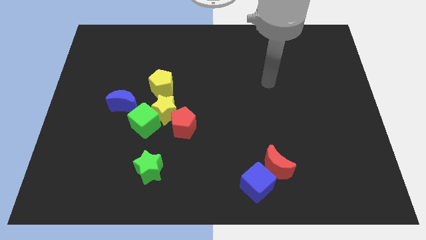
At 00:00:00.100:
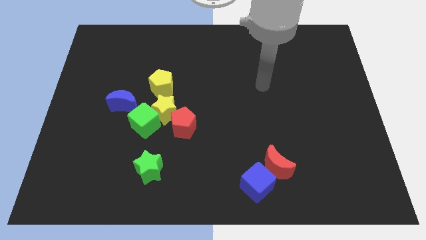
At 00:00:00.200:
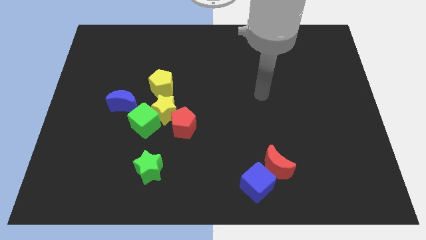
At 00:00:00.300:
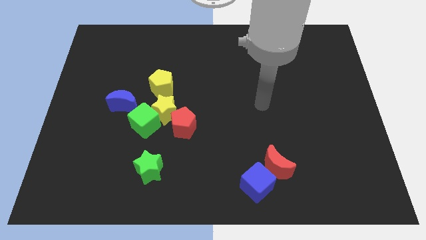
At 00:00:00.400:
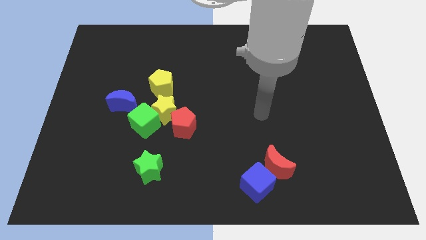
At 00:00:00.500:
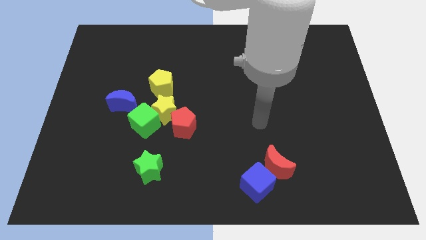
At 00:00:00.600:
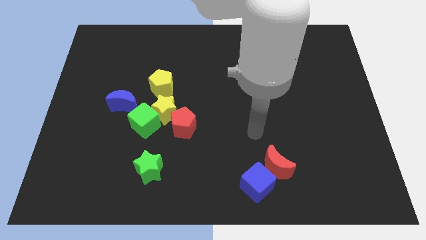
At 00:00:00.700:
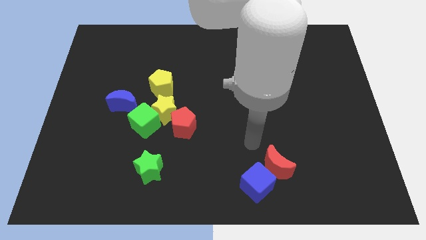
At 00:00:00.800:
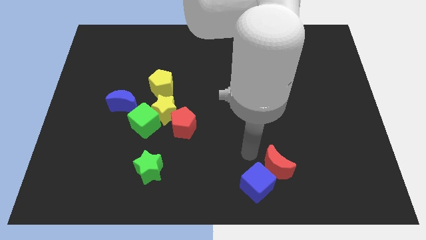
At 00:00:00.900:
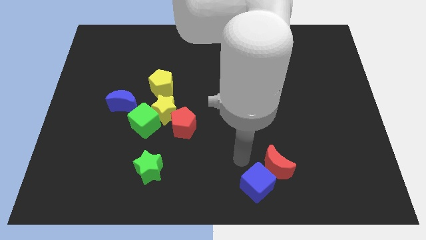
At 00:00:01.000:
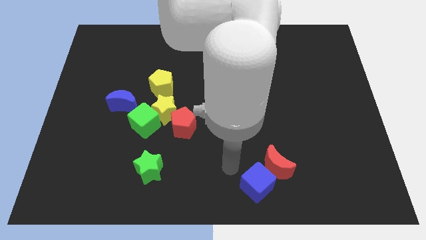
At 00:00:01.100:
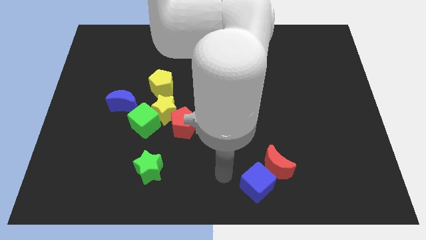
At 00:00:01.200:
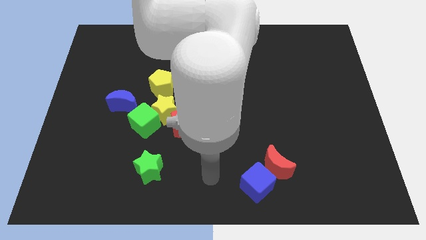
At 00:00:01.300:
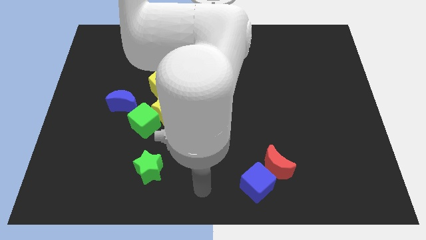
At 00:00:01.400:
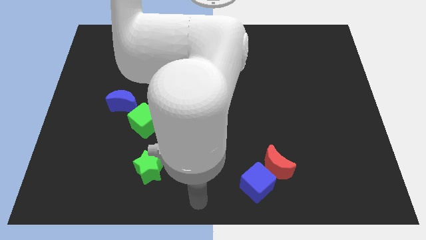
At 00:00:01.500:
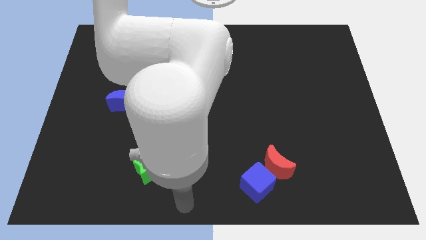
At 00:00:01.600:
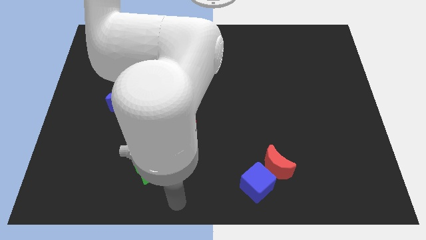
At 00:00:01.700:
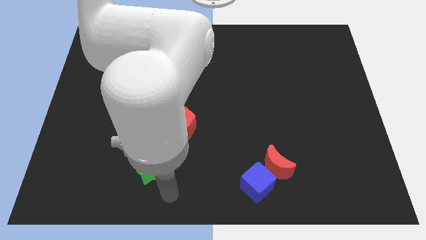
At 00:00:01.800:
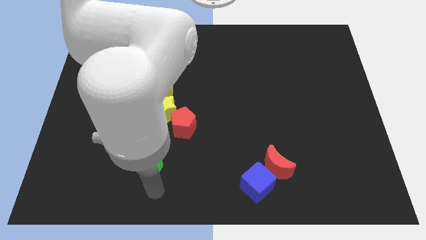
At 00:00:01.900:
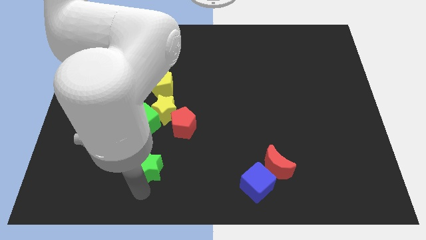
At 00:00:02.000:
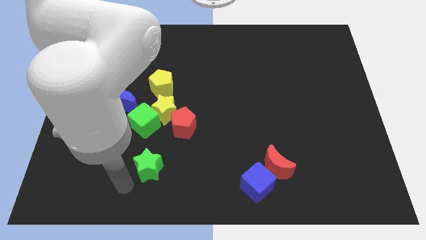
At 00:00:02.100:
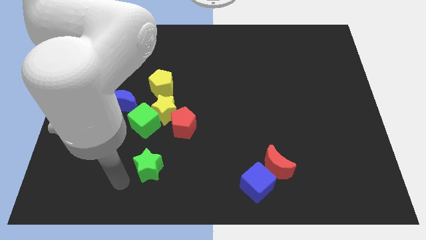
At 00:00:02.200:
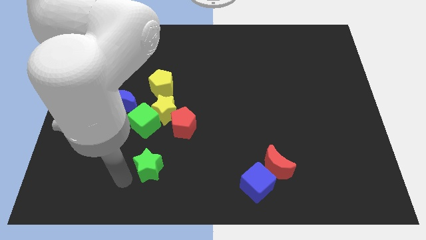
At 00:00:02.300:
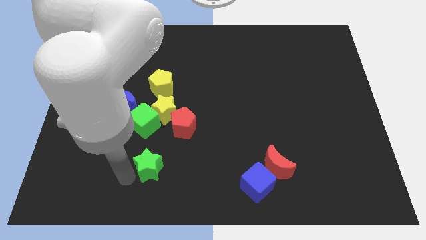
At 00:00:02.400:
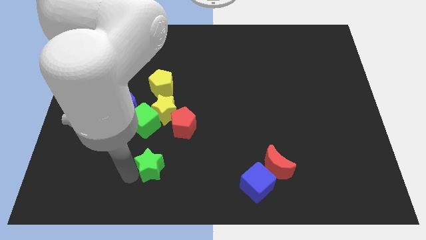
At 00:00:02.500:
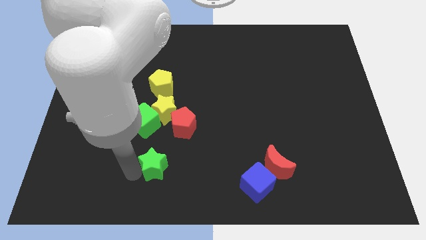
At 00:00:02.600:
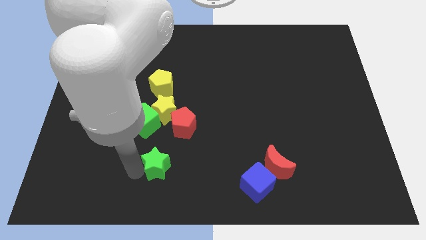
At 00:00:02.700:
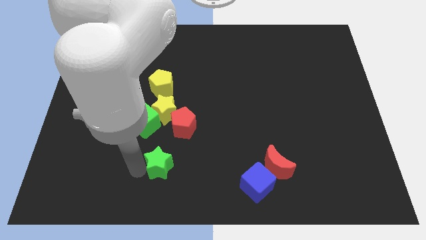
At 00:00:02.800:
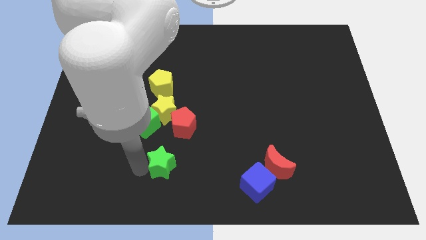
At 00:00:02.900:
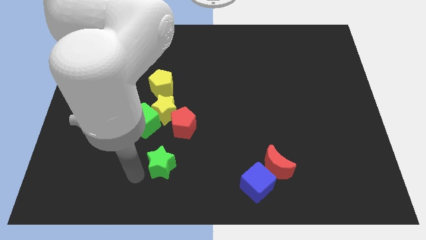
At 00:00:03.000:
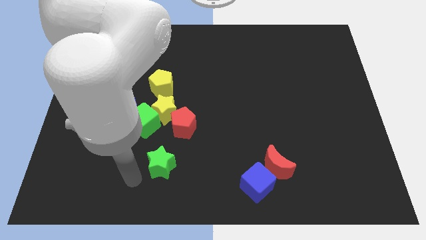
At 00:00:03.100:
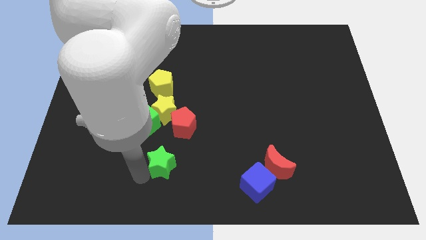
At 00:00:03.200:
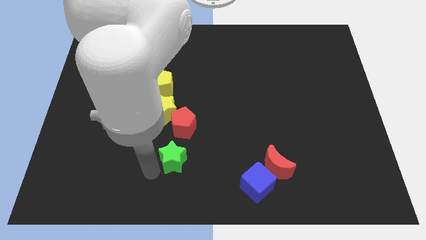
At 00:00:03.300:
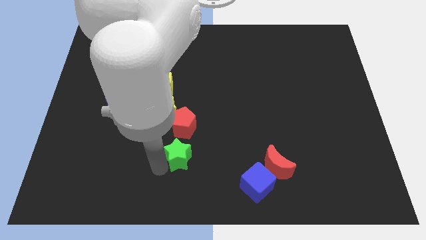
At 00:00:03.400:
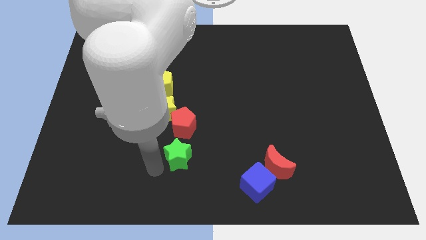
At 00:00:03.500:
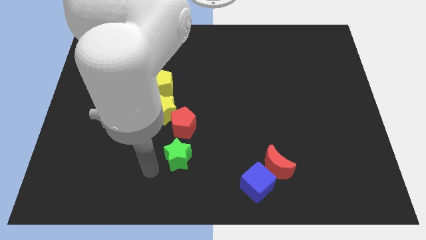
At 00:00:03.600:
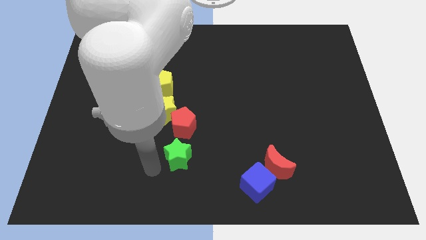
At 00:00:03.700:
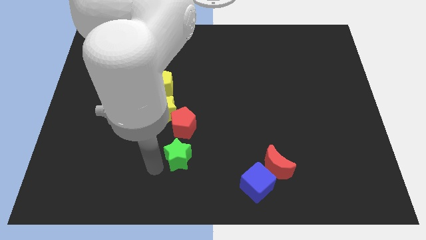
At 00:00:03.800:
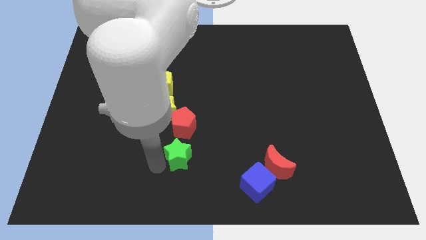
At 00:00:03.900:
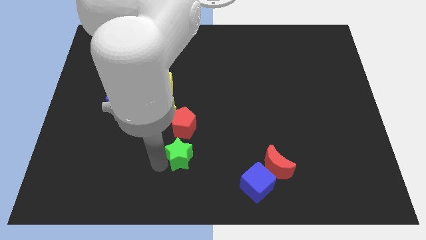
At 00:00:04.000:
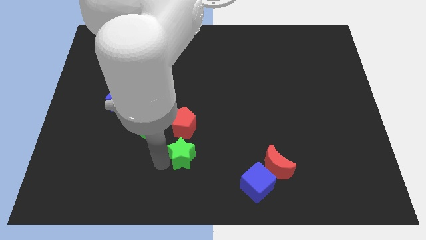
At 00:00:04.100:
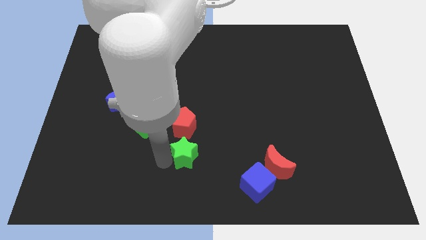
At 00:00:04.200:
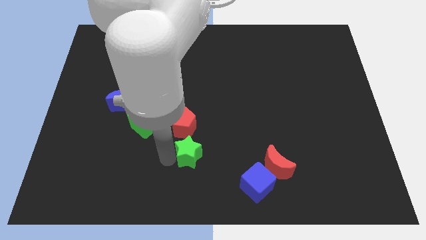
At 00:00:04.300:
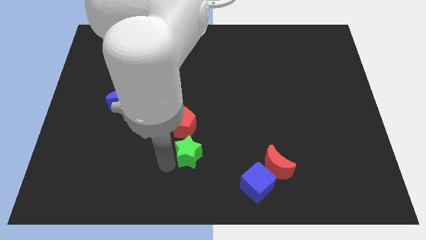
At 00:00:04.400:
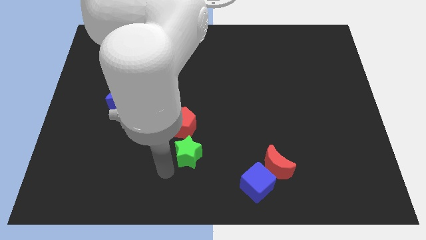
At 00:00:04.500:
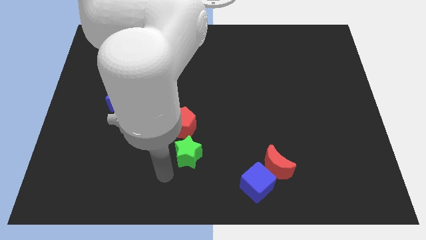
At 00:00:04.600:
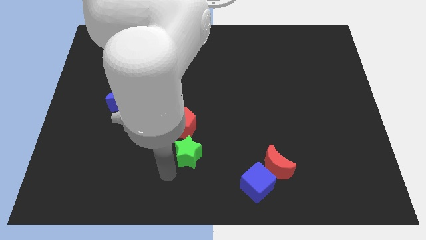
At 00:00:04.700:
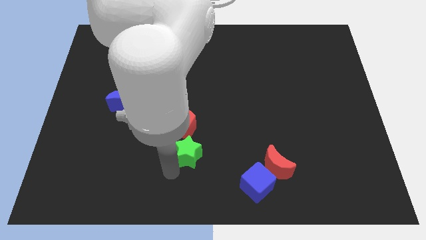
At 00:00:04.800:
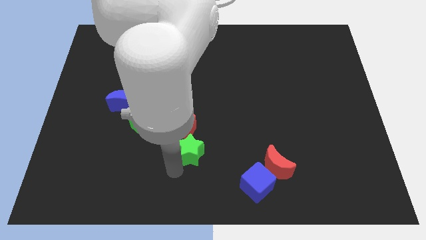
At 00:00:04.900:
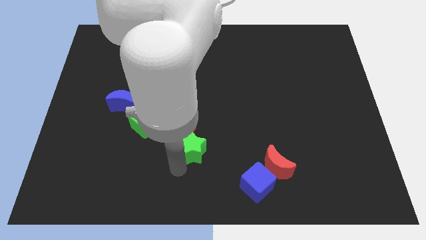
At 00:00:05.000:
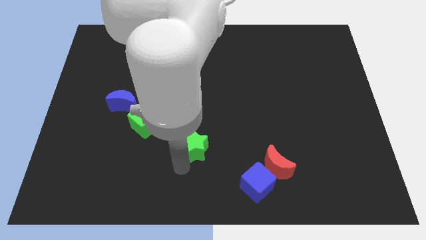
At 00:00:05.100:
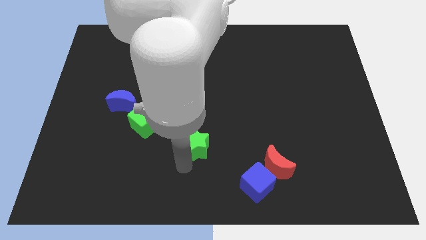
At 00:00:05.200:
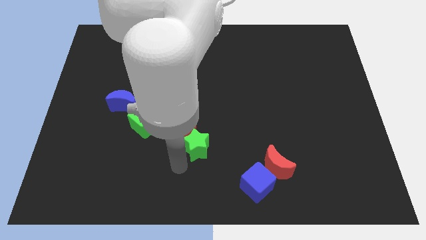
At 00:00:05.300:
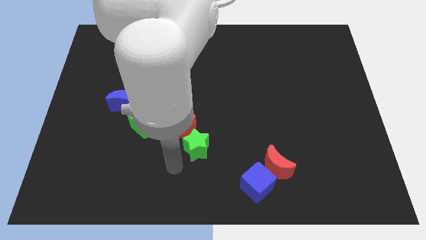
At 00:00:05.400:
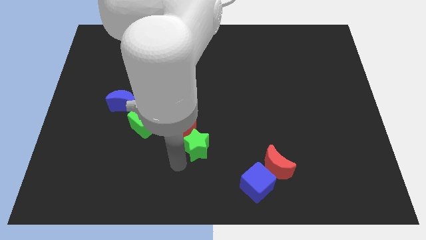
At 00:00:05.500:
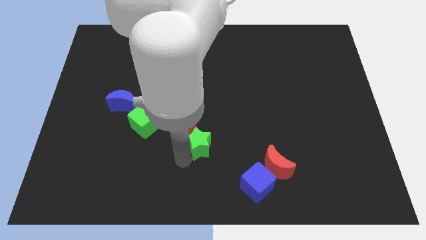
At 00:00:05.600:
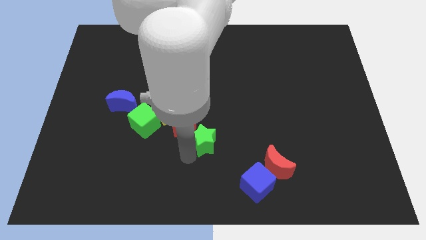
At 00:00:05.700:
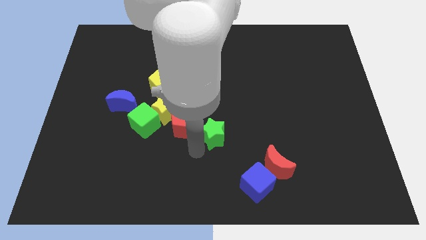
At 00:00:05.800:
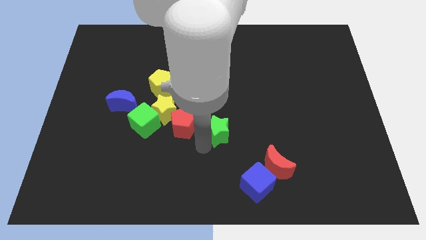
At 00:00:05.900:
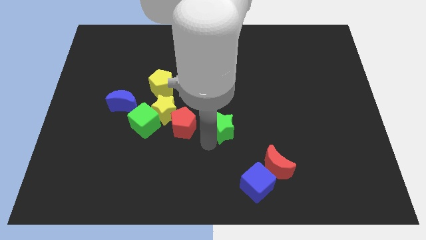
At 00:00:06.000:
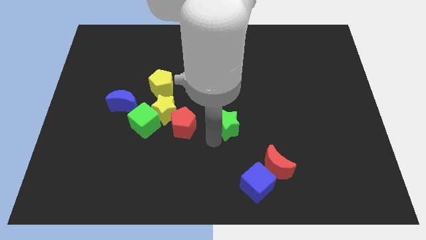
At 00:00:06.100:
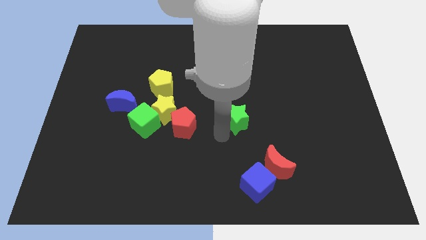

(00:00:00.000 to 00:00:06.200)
slide the green star up and to the right

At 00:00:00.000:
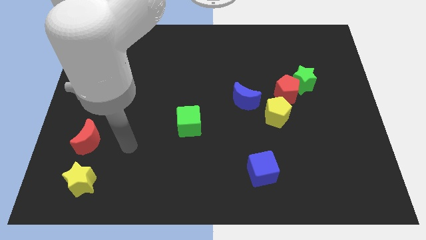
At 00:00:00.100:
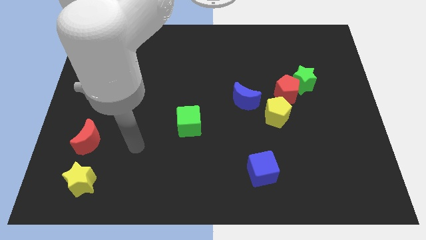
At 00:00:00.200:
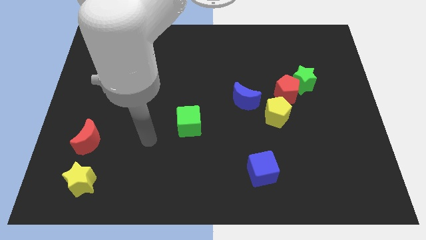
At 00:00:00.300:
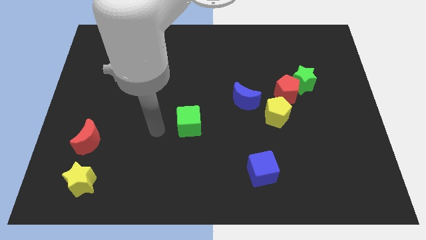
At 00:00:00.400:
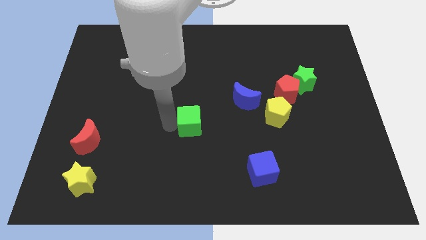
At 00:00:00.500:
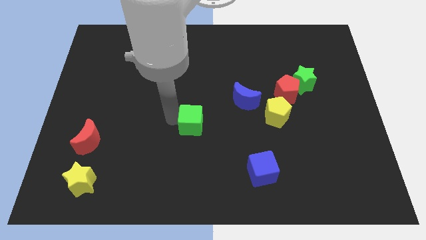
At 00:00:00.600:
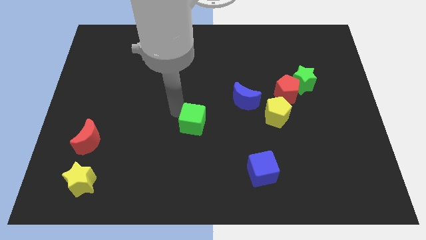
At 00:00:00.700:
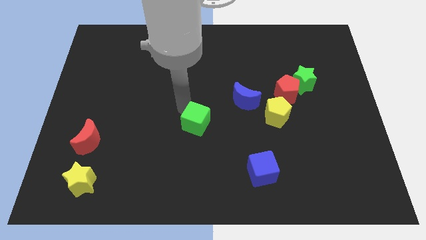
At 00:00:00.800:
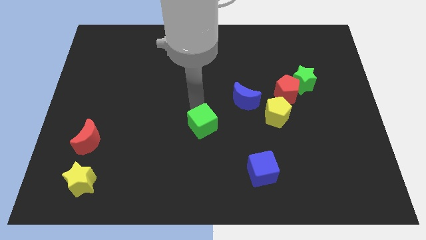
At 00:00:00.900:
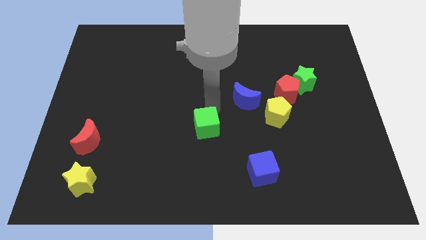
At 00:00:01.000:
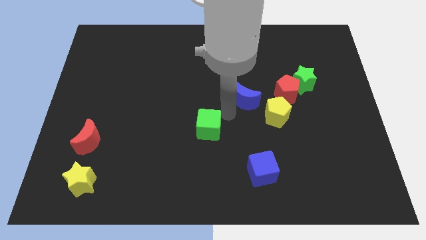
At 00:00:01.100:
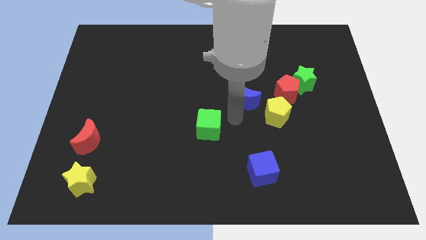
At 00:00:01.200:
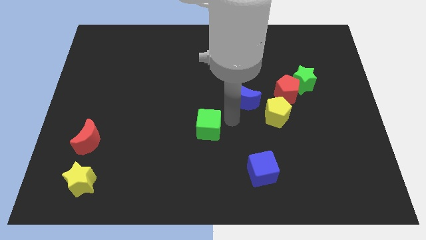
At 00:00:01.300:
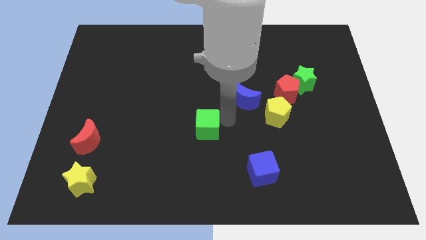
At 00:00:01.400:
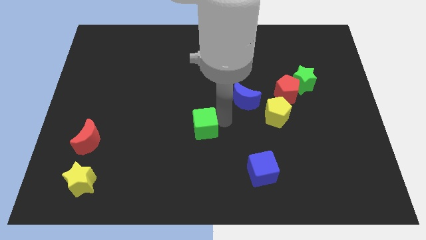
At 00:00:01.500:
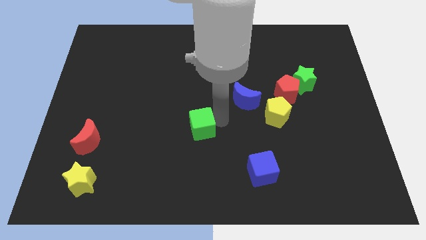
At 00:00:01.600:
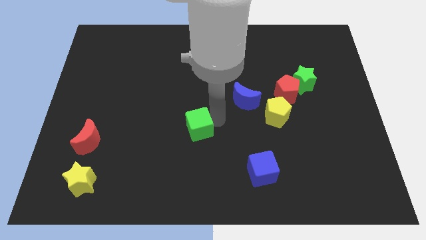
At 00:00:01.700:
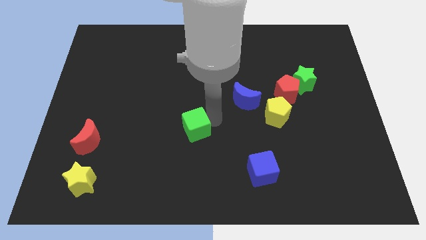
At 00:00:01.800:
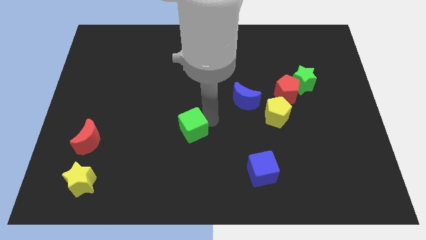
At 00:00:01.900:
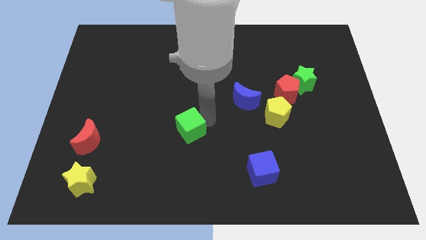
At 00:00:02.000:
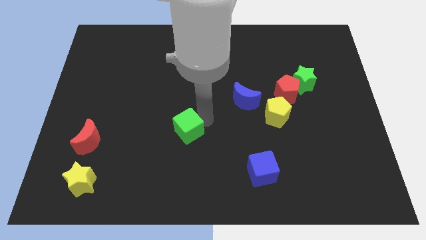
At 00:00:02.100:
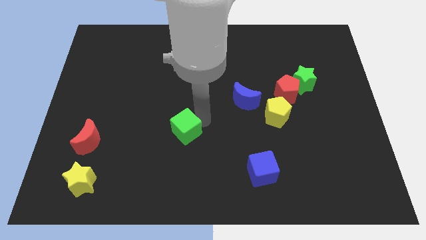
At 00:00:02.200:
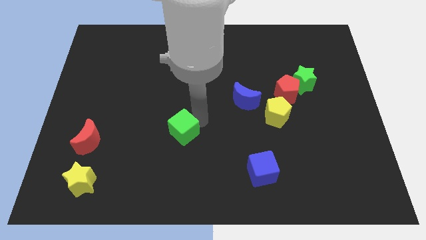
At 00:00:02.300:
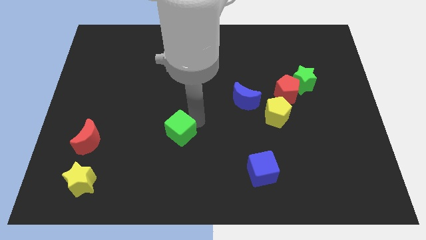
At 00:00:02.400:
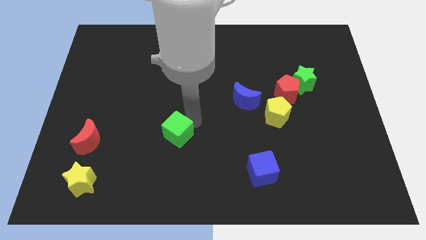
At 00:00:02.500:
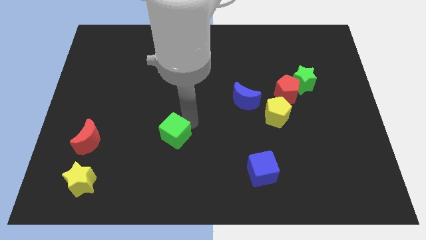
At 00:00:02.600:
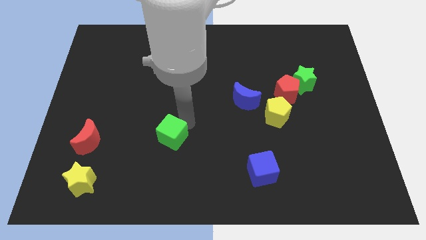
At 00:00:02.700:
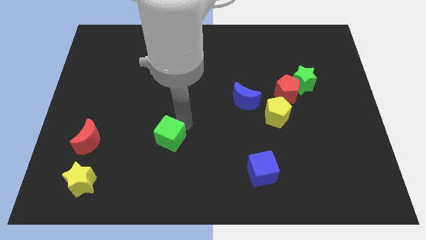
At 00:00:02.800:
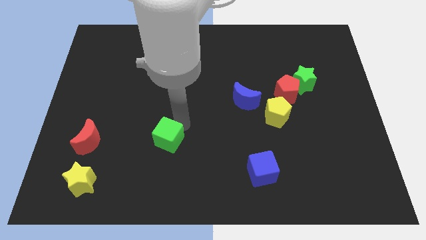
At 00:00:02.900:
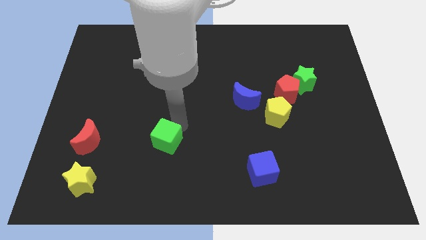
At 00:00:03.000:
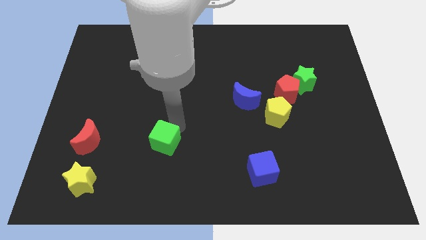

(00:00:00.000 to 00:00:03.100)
slightly move the green cube down and left diagonally
